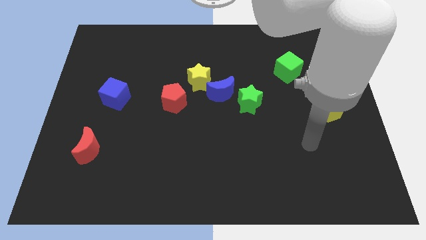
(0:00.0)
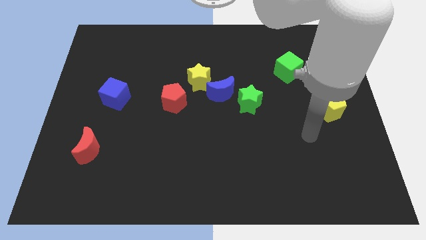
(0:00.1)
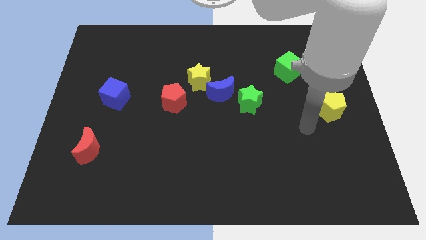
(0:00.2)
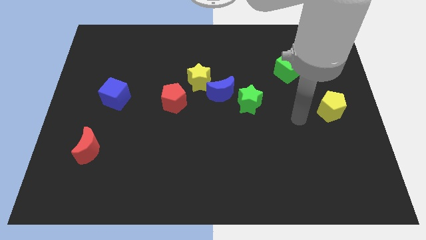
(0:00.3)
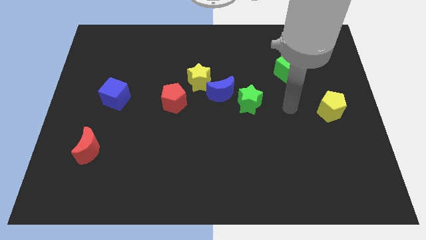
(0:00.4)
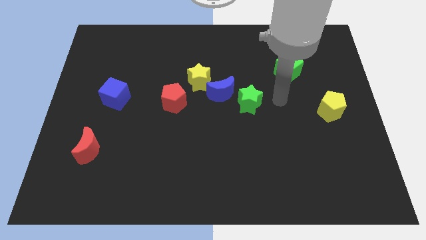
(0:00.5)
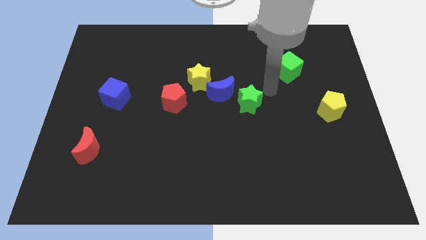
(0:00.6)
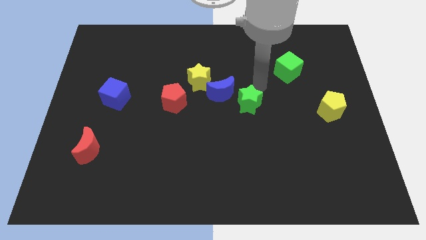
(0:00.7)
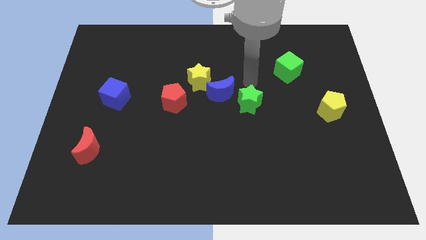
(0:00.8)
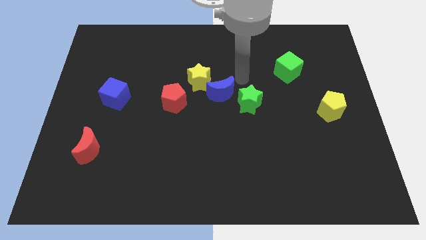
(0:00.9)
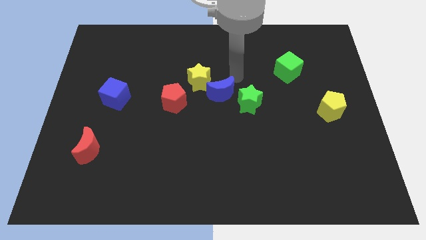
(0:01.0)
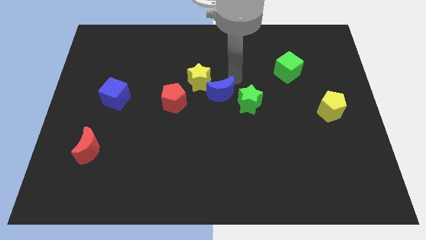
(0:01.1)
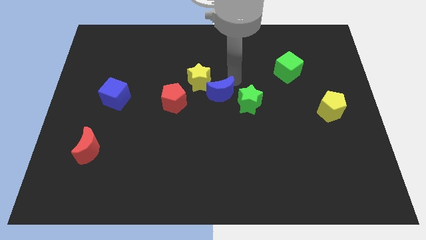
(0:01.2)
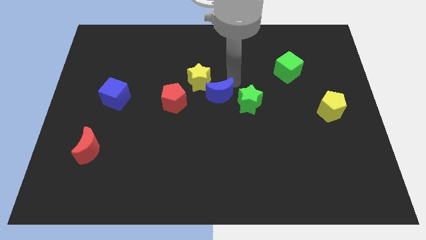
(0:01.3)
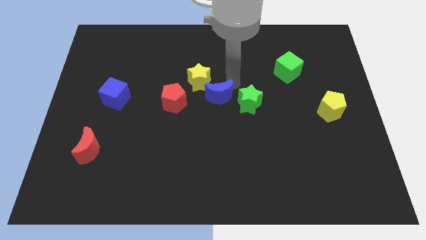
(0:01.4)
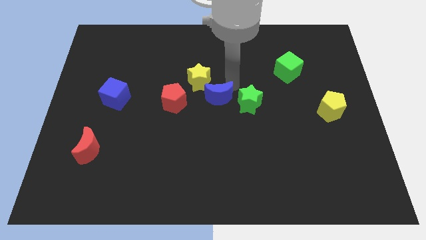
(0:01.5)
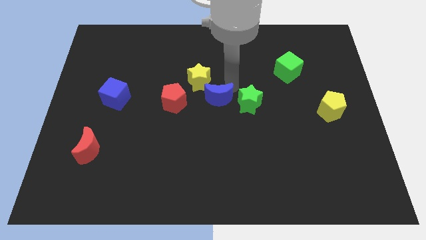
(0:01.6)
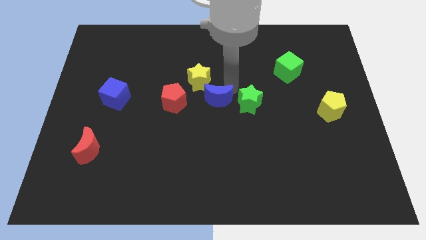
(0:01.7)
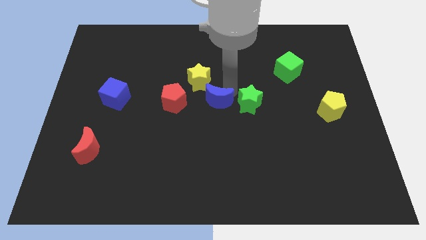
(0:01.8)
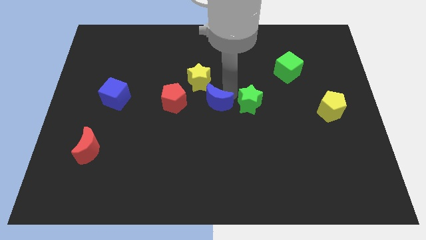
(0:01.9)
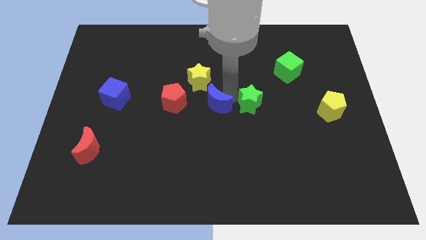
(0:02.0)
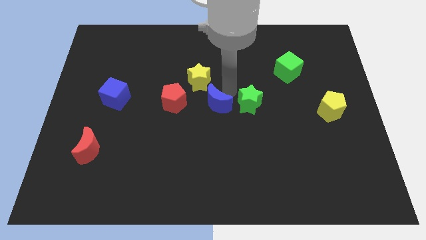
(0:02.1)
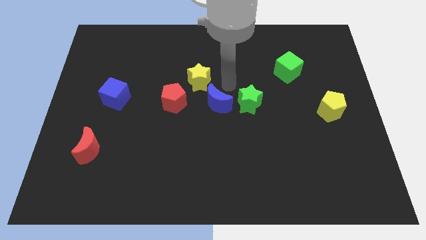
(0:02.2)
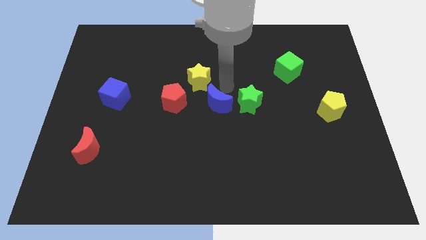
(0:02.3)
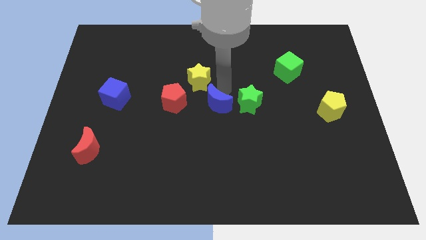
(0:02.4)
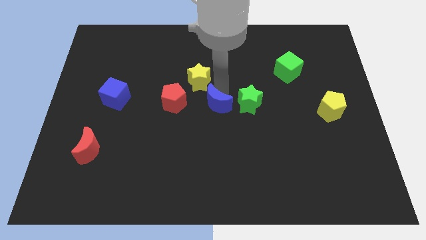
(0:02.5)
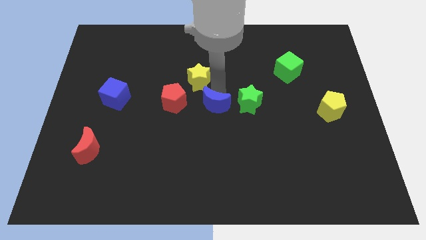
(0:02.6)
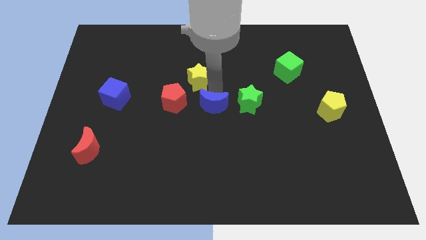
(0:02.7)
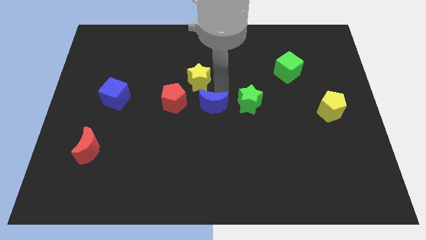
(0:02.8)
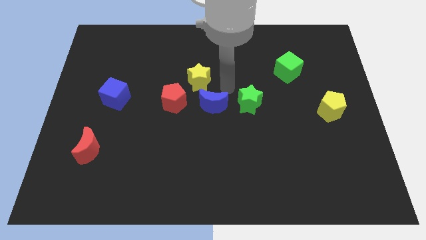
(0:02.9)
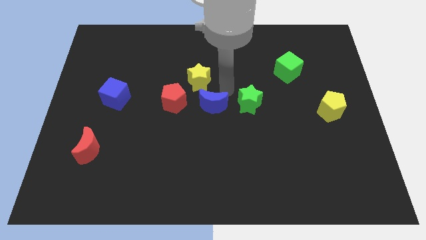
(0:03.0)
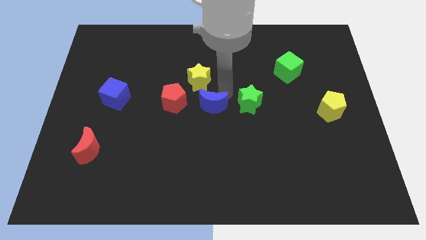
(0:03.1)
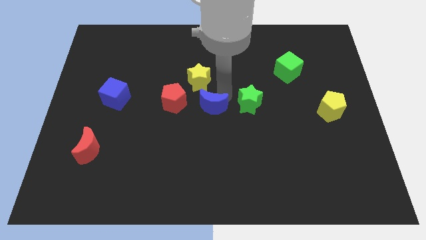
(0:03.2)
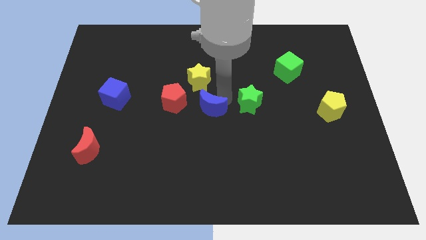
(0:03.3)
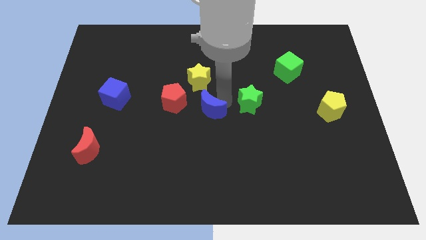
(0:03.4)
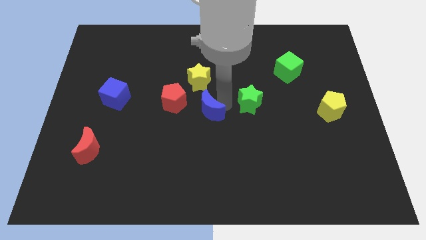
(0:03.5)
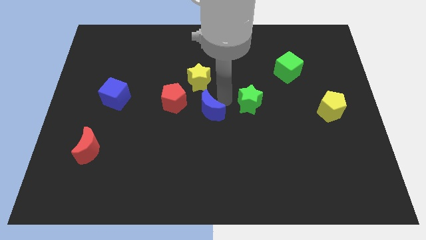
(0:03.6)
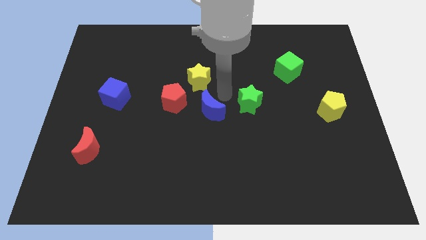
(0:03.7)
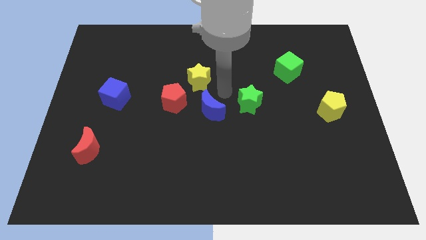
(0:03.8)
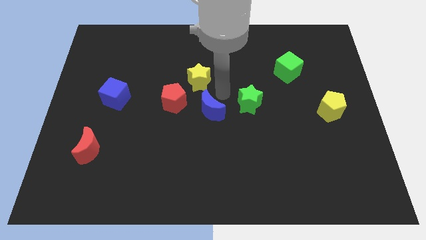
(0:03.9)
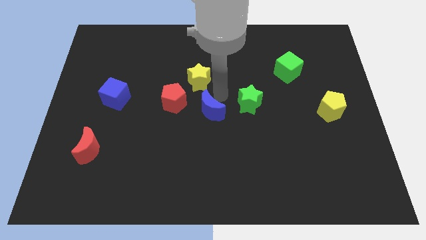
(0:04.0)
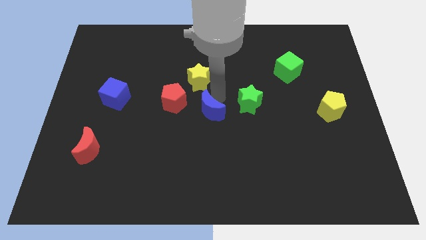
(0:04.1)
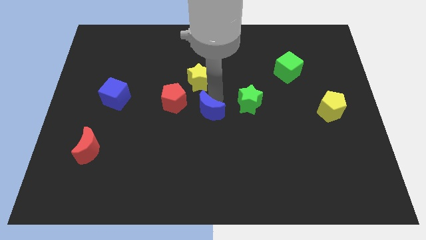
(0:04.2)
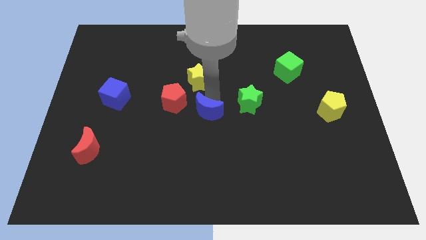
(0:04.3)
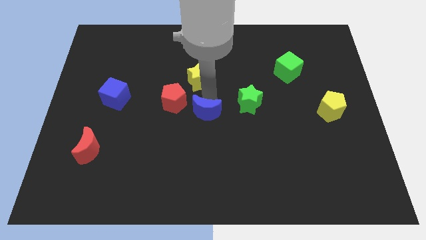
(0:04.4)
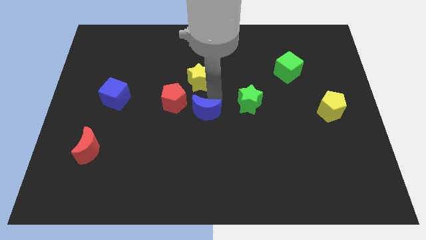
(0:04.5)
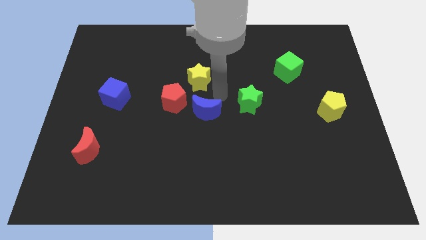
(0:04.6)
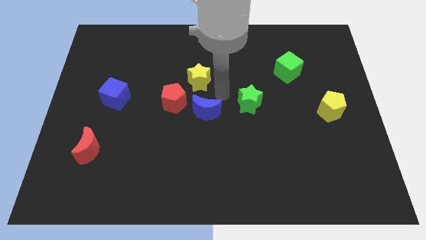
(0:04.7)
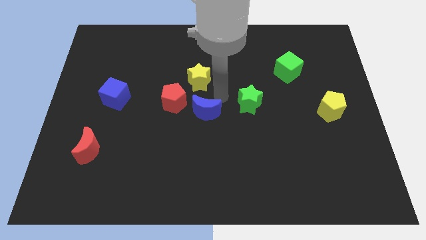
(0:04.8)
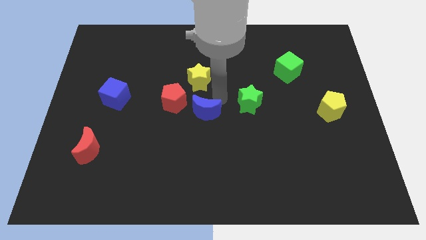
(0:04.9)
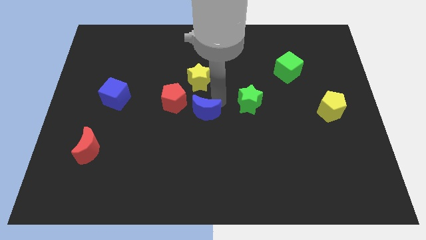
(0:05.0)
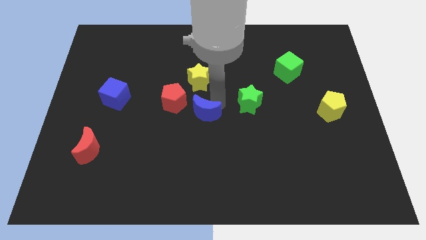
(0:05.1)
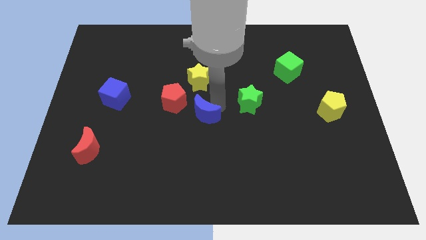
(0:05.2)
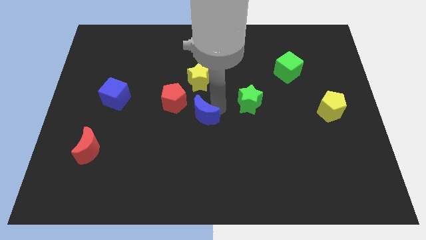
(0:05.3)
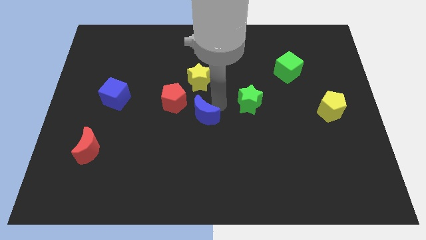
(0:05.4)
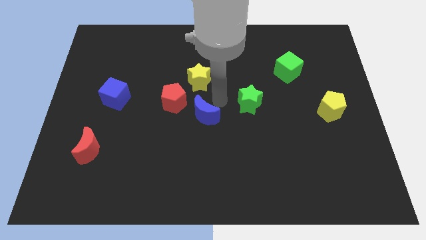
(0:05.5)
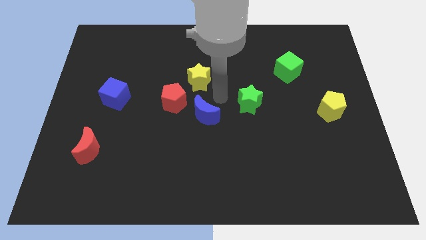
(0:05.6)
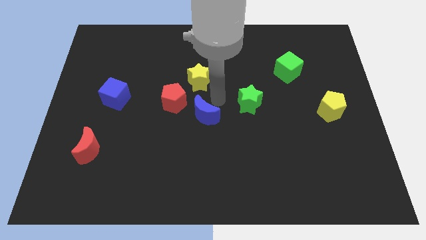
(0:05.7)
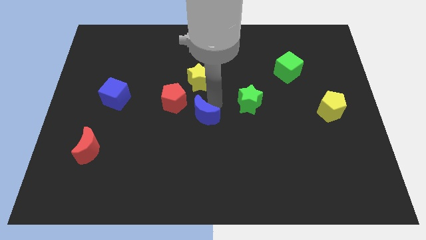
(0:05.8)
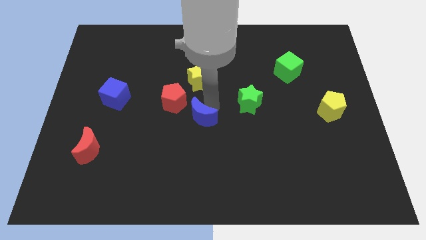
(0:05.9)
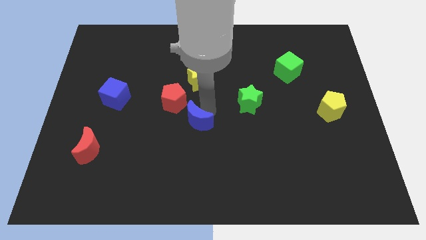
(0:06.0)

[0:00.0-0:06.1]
separate the blue moon from the yellow star and green star

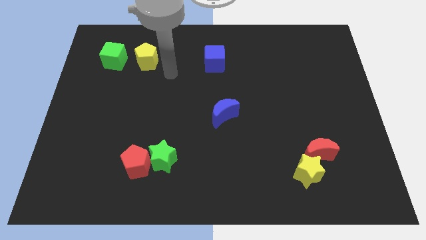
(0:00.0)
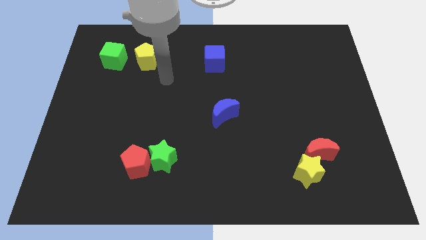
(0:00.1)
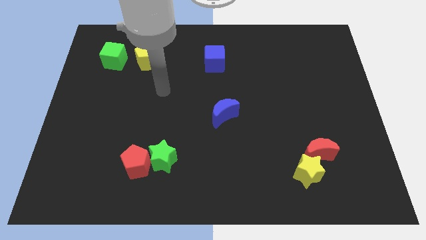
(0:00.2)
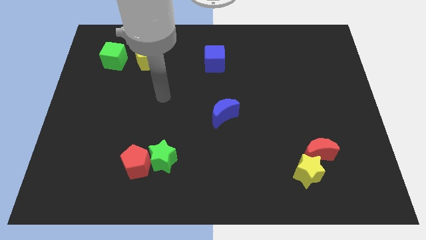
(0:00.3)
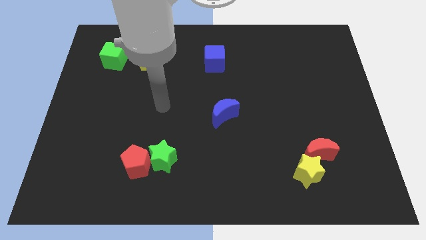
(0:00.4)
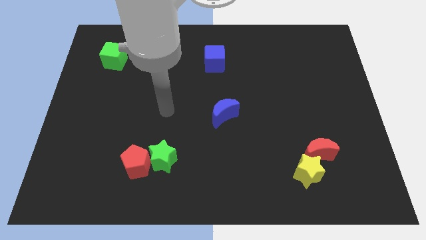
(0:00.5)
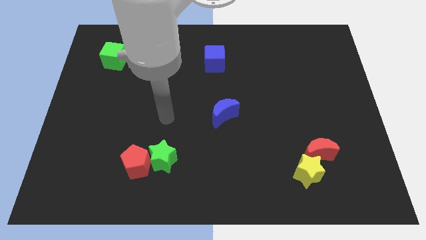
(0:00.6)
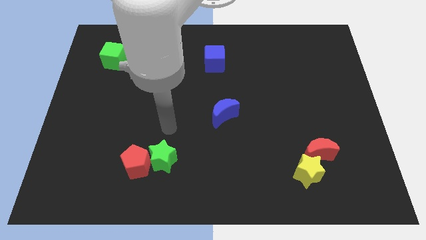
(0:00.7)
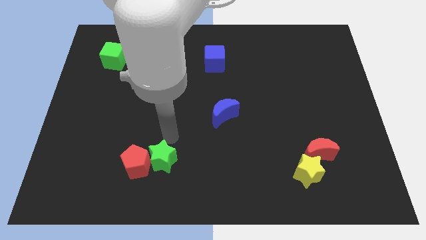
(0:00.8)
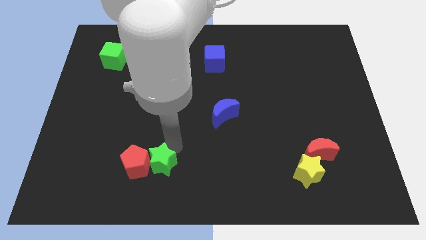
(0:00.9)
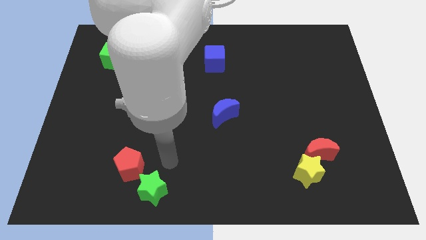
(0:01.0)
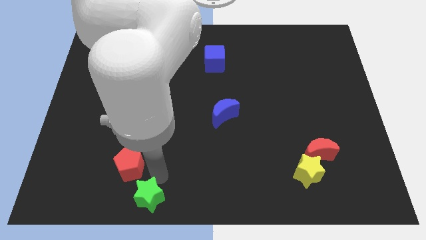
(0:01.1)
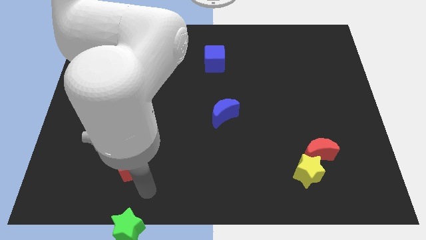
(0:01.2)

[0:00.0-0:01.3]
move the red pentagon away from the green star

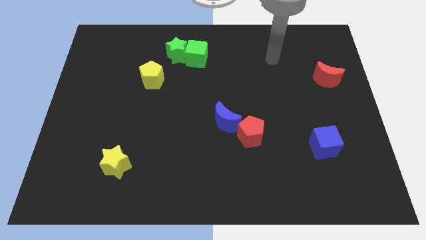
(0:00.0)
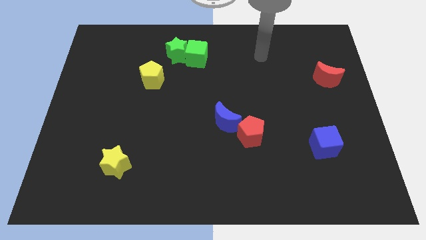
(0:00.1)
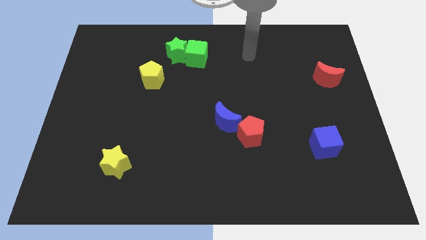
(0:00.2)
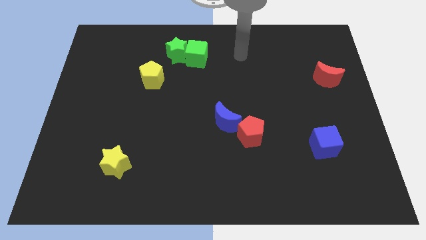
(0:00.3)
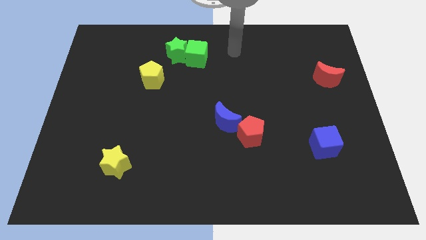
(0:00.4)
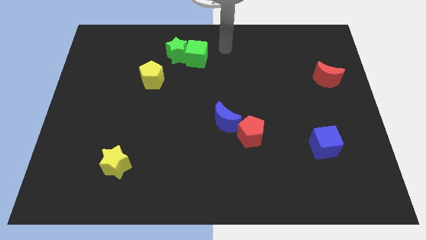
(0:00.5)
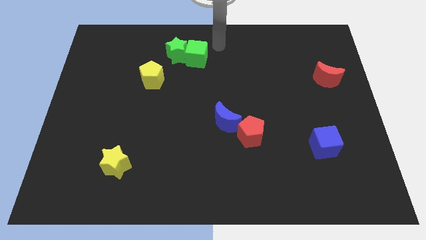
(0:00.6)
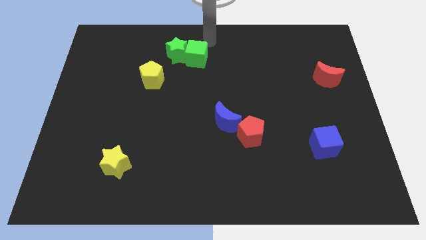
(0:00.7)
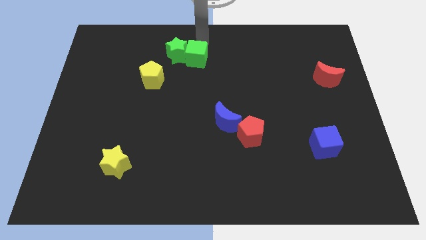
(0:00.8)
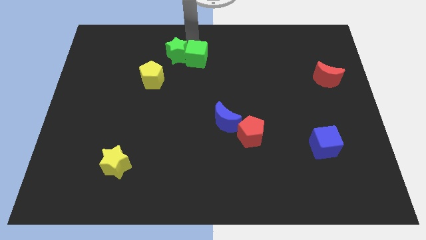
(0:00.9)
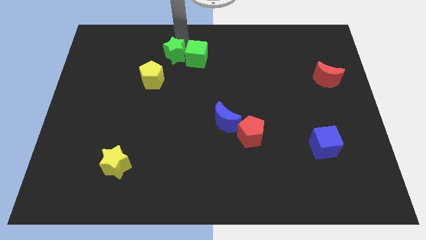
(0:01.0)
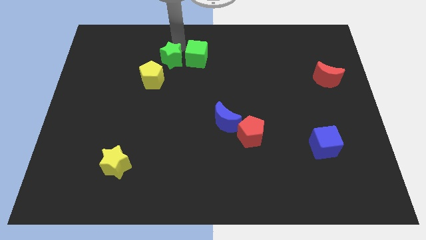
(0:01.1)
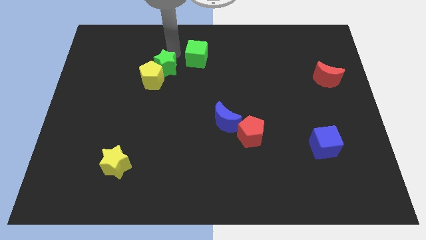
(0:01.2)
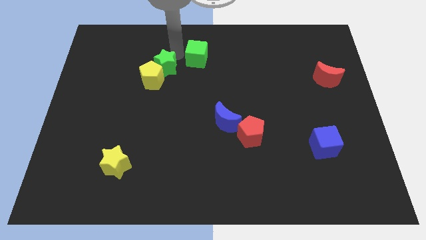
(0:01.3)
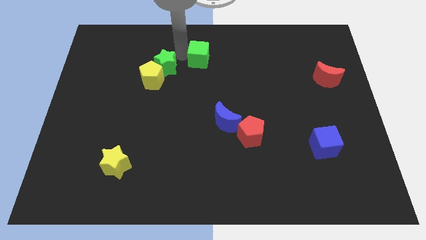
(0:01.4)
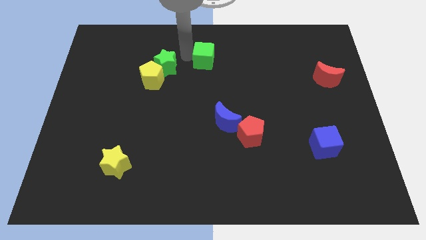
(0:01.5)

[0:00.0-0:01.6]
move the green cube away from the green star

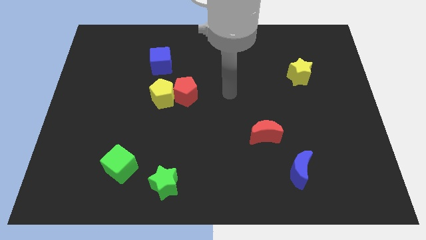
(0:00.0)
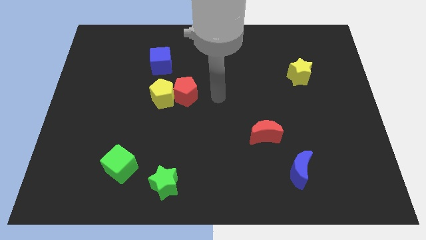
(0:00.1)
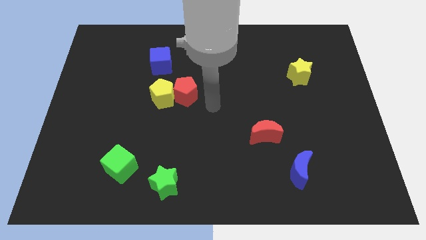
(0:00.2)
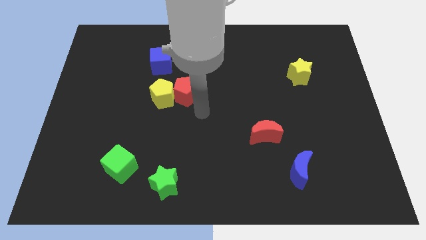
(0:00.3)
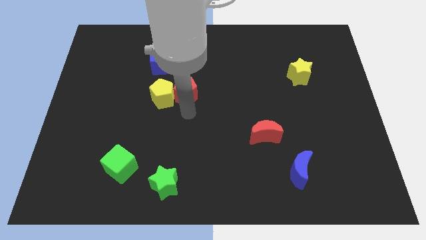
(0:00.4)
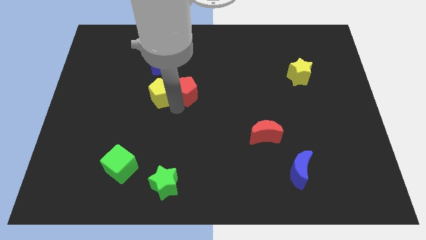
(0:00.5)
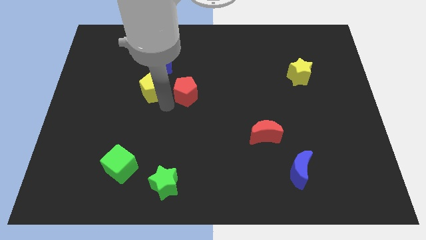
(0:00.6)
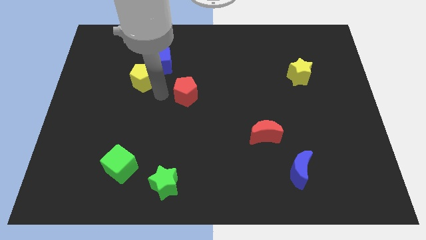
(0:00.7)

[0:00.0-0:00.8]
move the red pentagon away from the yellow pentagon
